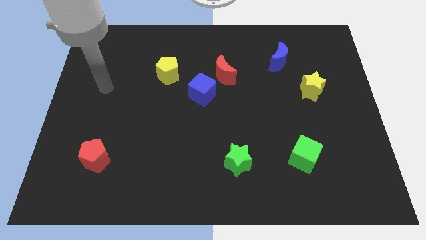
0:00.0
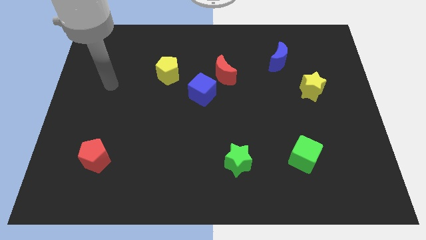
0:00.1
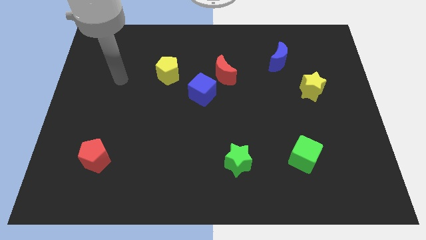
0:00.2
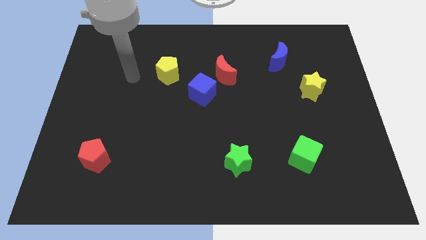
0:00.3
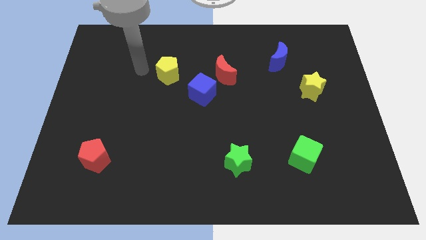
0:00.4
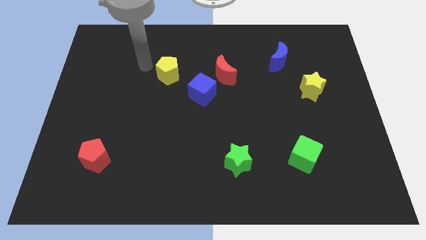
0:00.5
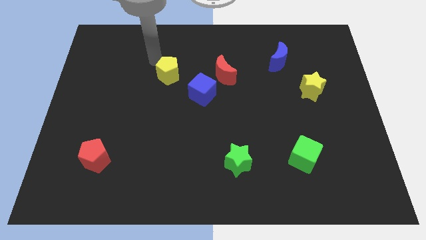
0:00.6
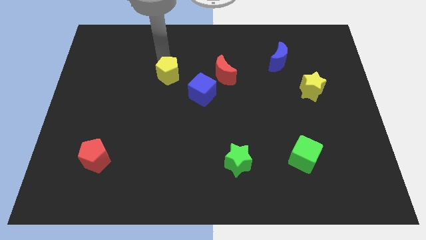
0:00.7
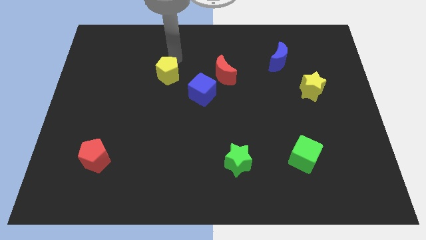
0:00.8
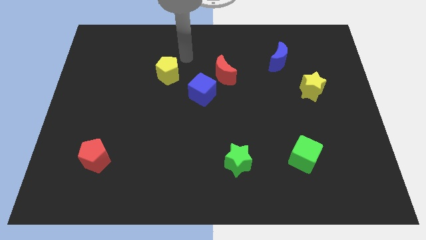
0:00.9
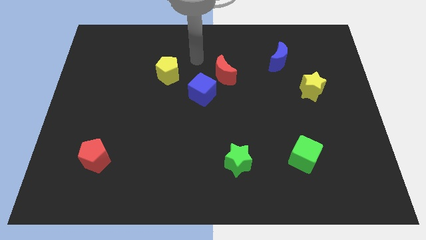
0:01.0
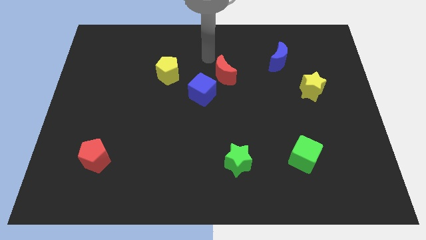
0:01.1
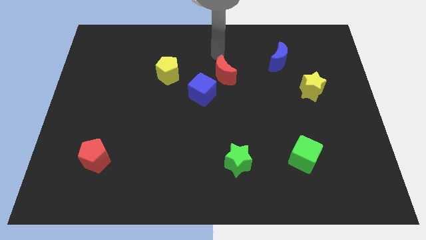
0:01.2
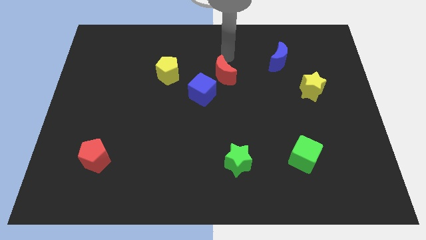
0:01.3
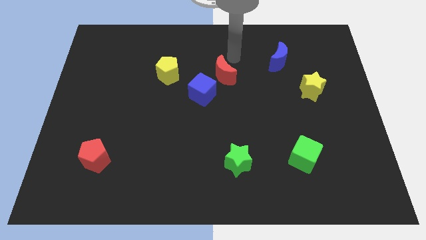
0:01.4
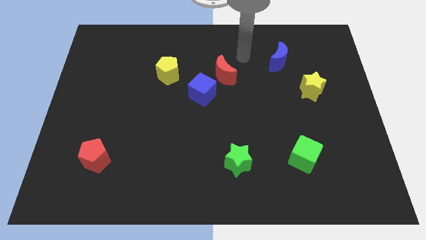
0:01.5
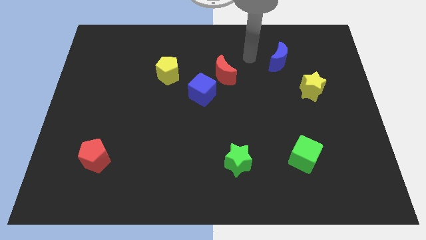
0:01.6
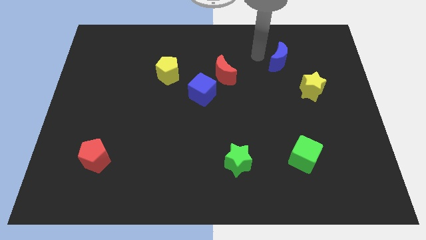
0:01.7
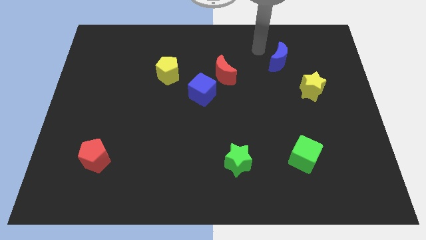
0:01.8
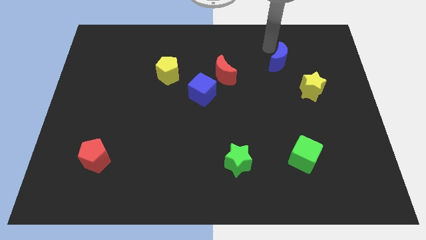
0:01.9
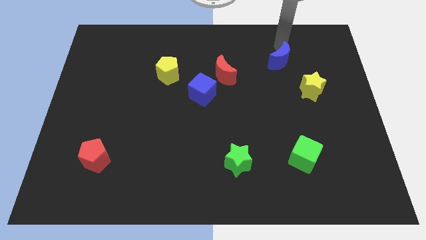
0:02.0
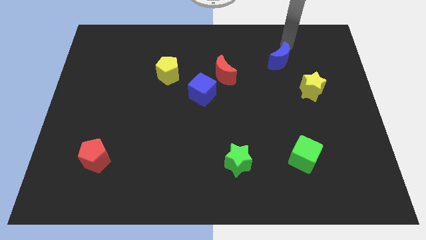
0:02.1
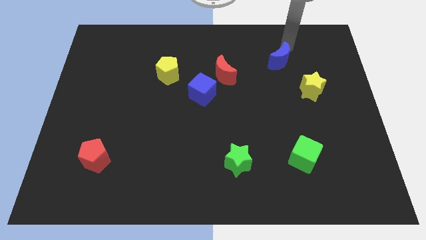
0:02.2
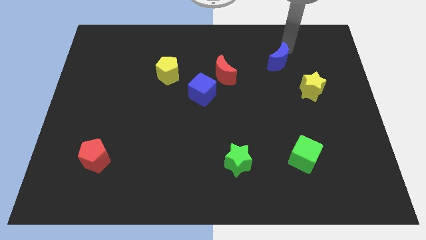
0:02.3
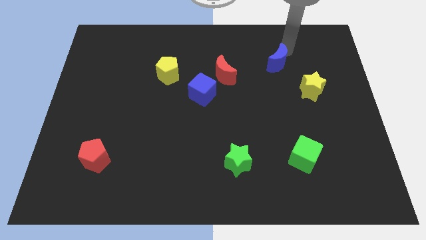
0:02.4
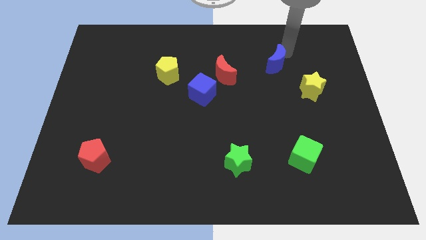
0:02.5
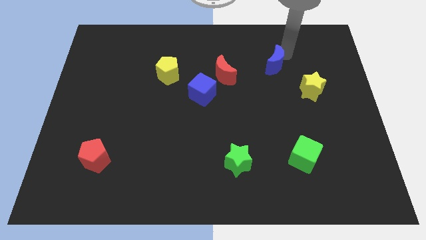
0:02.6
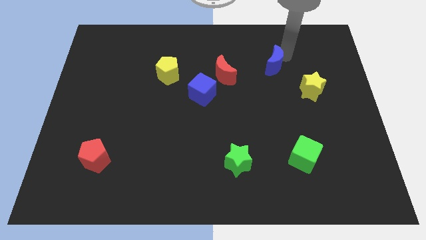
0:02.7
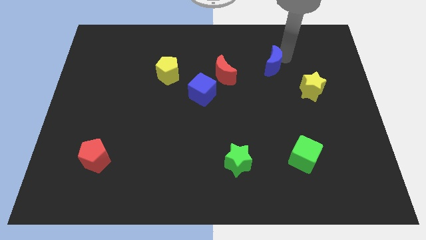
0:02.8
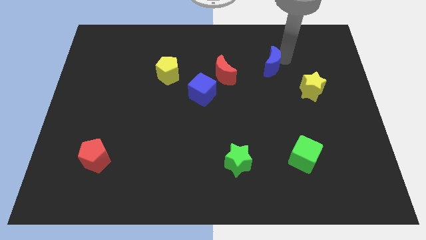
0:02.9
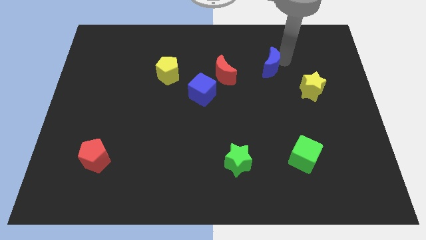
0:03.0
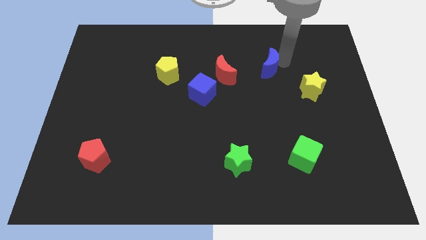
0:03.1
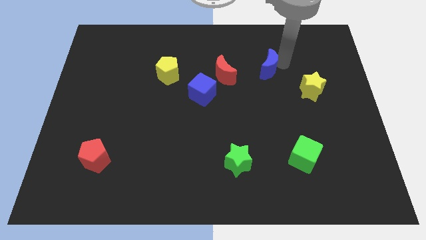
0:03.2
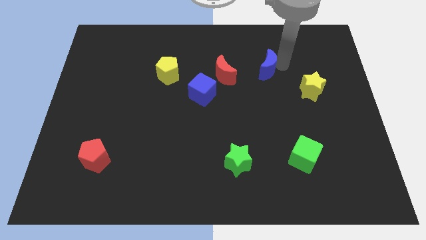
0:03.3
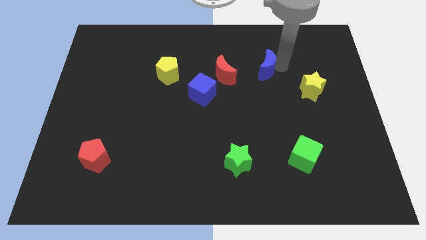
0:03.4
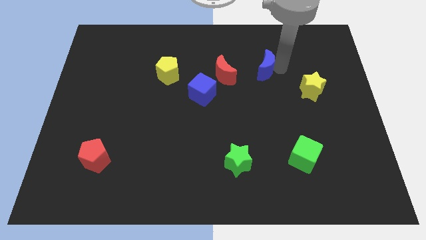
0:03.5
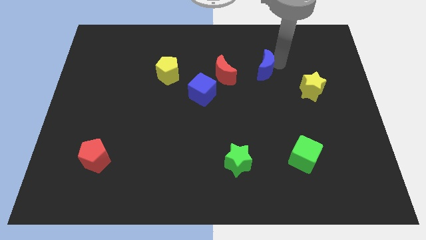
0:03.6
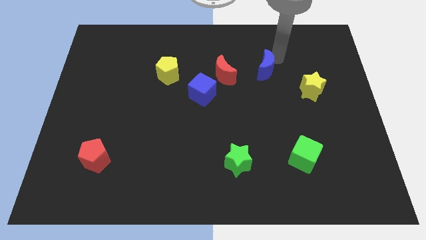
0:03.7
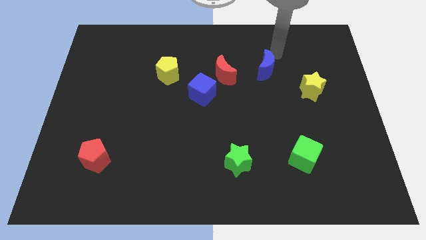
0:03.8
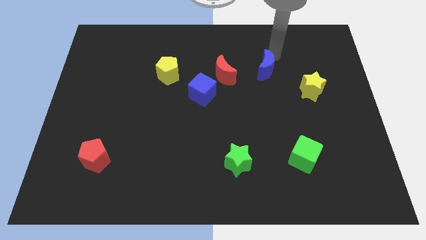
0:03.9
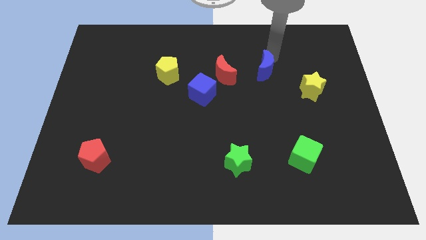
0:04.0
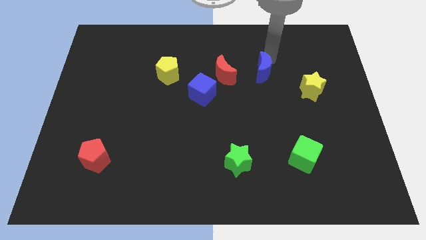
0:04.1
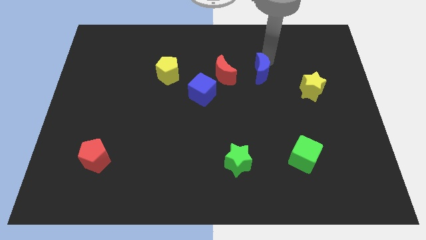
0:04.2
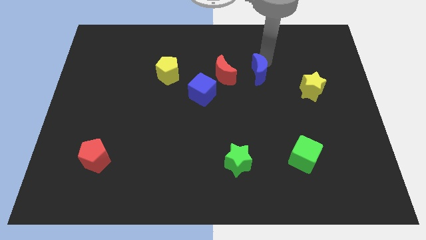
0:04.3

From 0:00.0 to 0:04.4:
move the blue moon somewhat down and then left

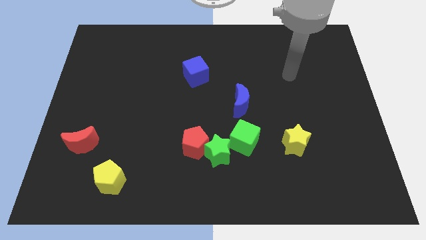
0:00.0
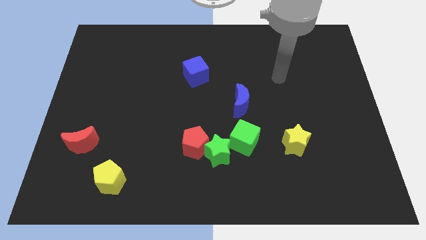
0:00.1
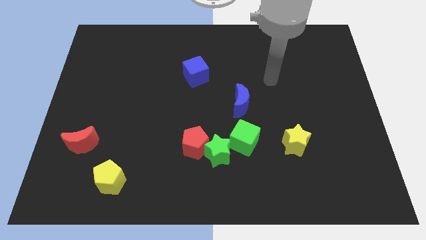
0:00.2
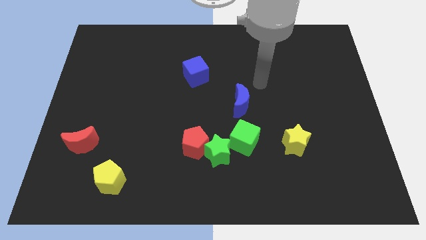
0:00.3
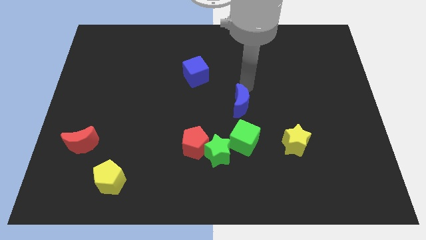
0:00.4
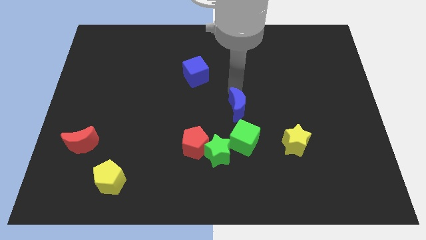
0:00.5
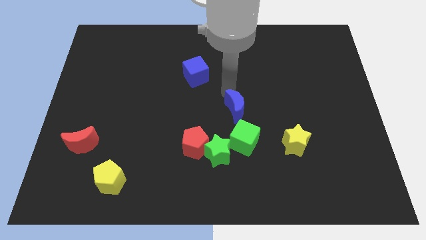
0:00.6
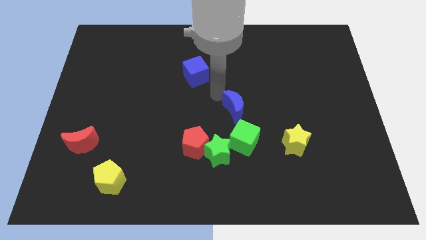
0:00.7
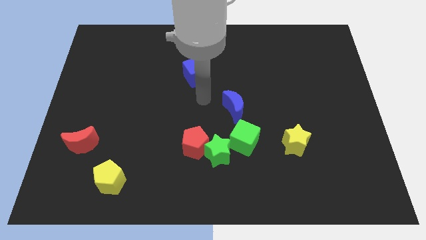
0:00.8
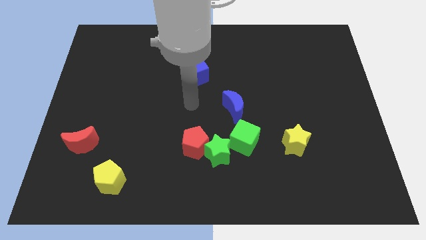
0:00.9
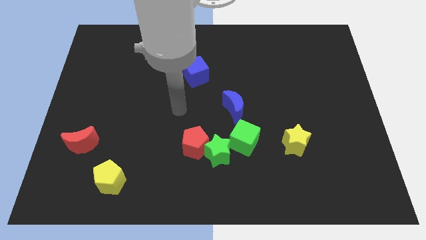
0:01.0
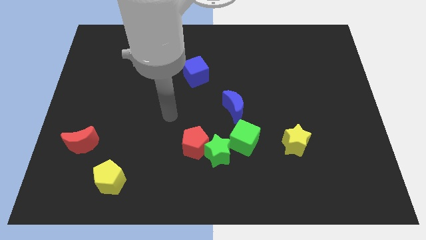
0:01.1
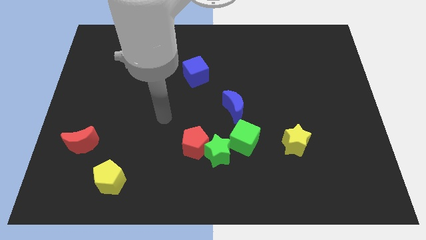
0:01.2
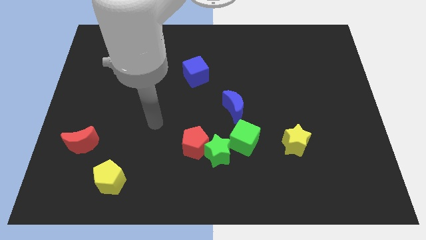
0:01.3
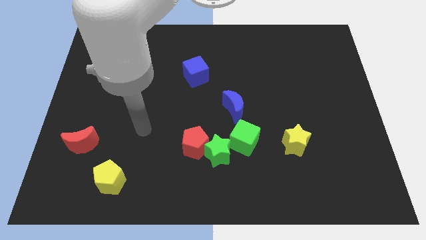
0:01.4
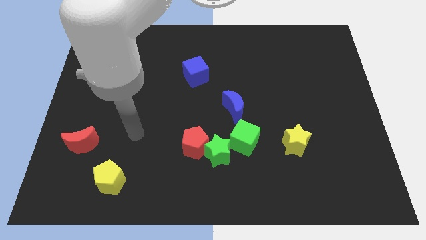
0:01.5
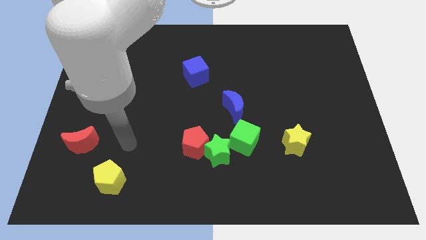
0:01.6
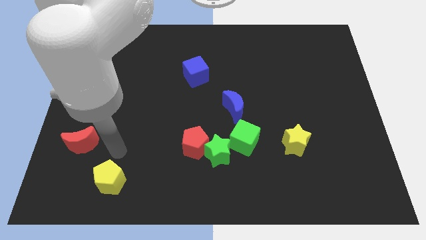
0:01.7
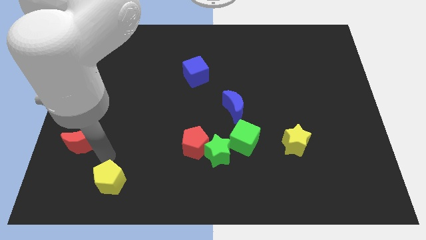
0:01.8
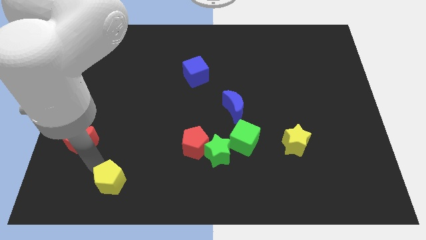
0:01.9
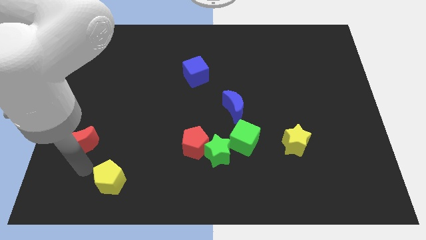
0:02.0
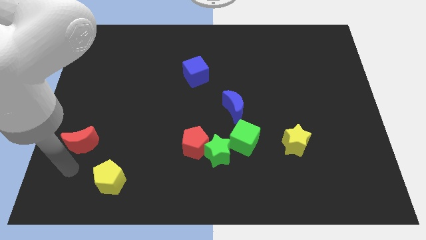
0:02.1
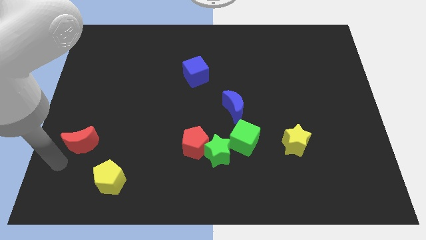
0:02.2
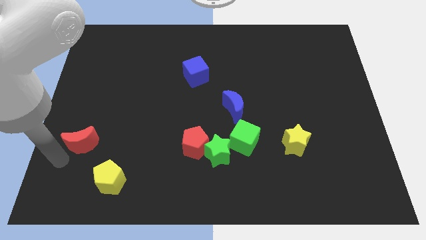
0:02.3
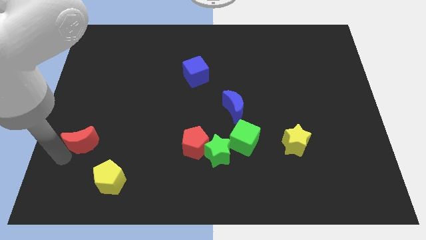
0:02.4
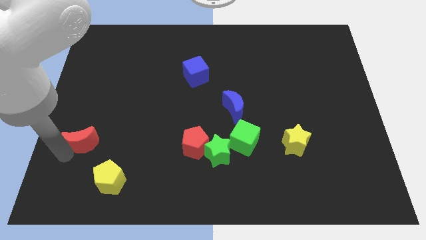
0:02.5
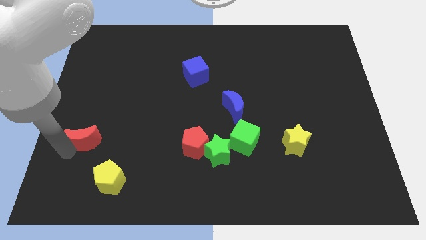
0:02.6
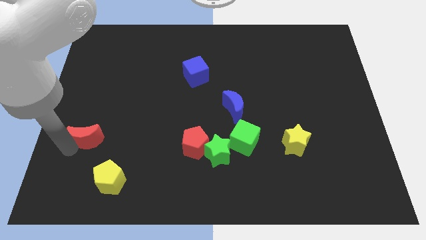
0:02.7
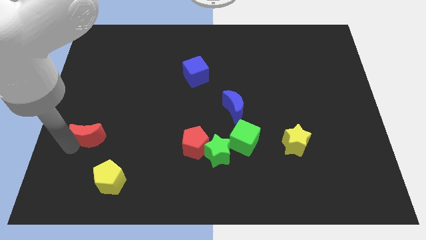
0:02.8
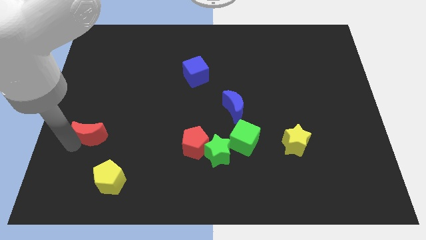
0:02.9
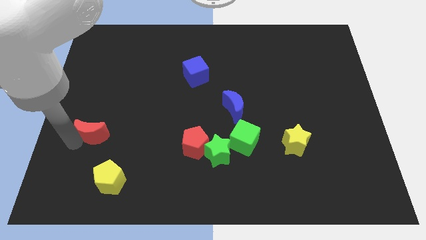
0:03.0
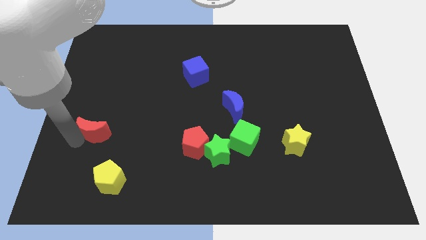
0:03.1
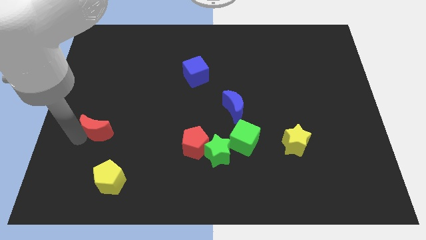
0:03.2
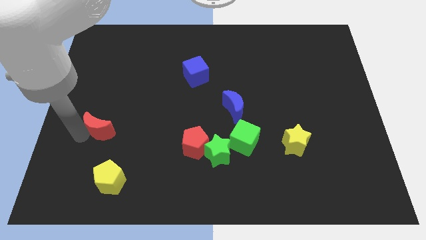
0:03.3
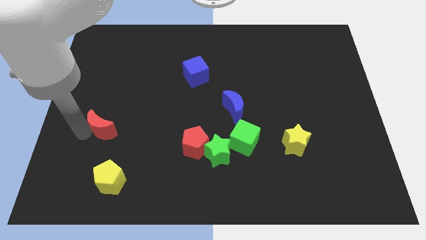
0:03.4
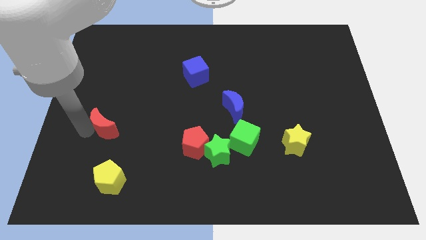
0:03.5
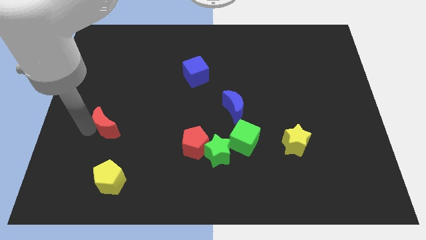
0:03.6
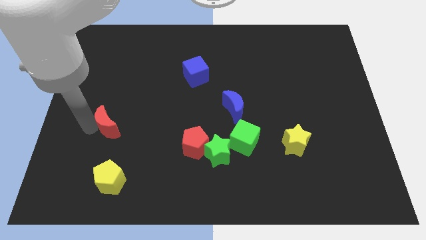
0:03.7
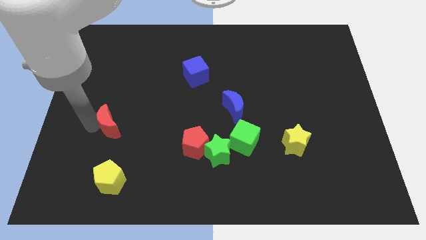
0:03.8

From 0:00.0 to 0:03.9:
move the red moon upwards and then to the right slightly

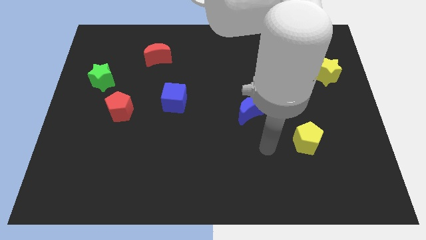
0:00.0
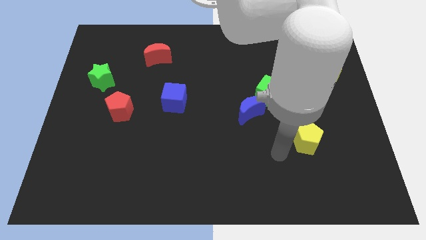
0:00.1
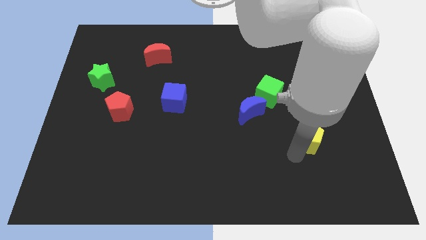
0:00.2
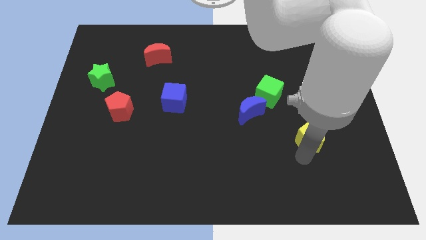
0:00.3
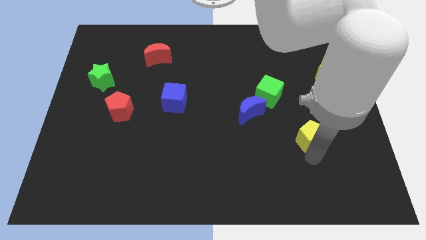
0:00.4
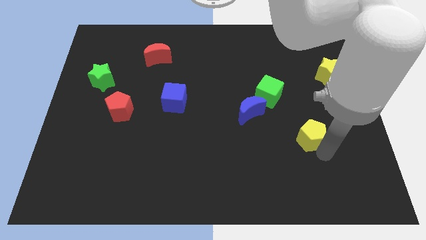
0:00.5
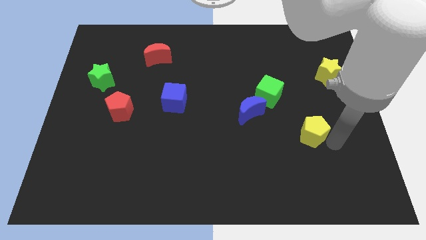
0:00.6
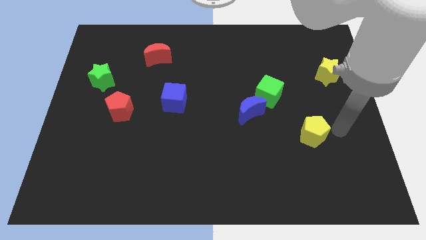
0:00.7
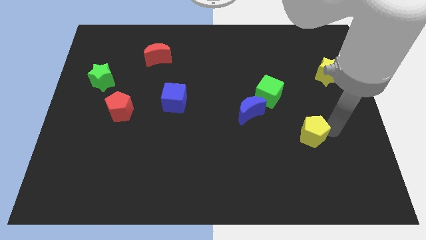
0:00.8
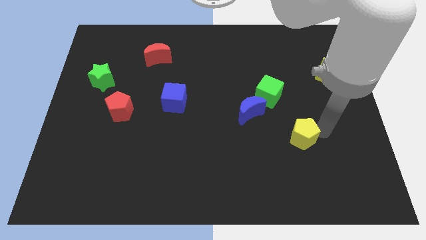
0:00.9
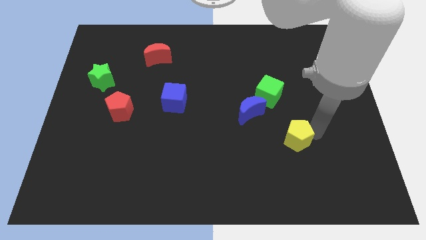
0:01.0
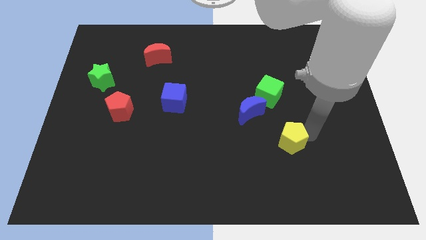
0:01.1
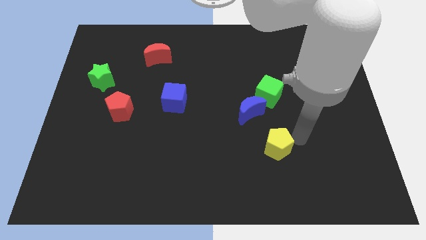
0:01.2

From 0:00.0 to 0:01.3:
push the yellow pentagon a little to the left
